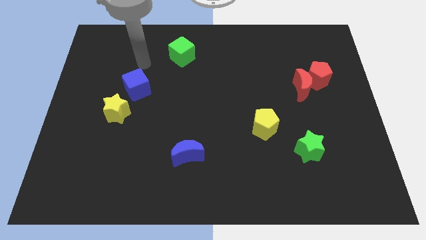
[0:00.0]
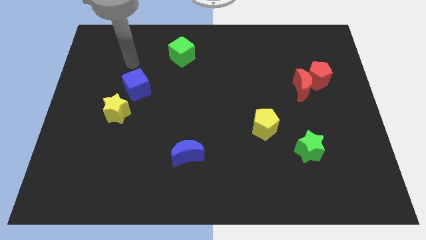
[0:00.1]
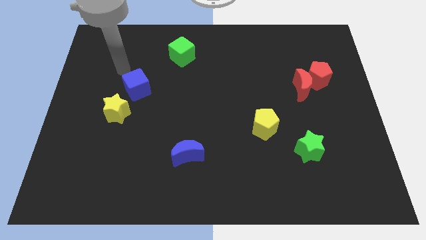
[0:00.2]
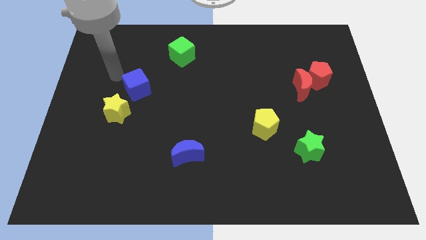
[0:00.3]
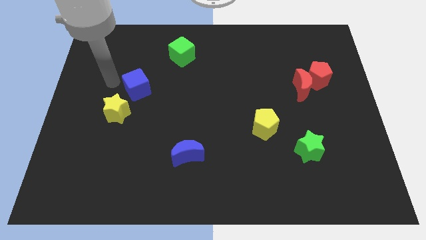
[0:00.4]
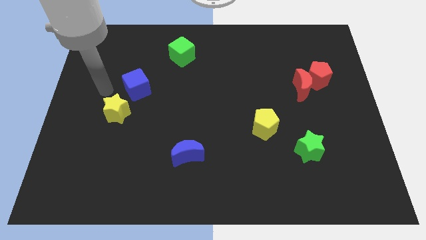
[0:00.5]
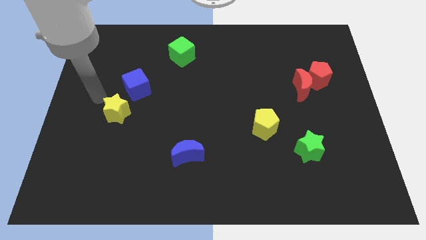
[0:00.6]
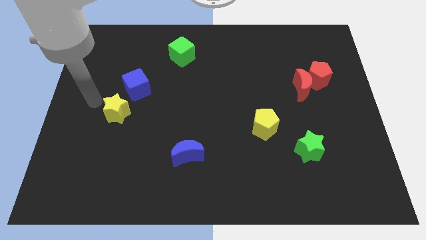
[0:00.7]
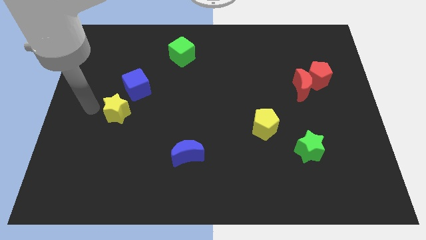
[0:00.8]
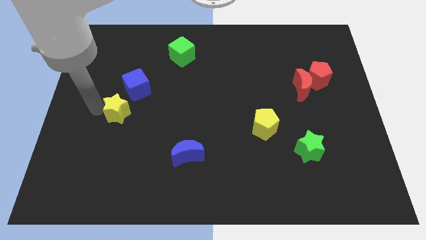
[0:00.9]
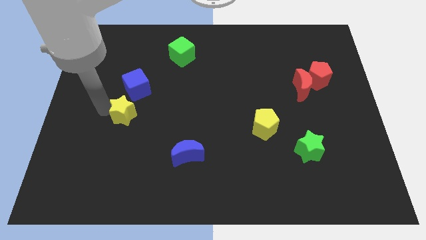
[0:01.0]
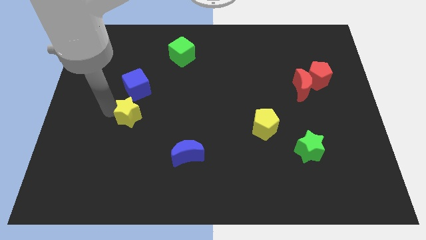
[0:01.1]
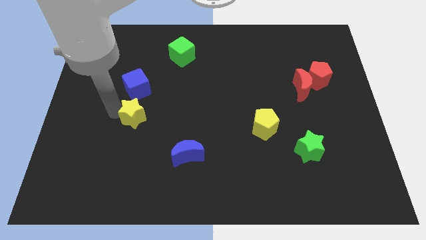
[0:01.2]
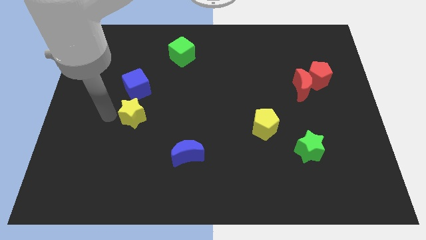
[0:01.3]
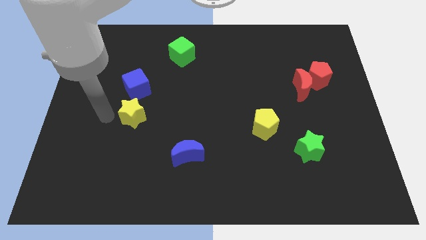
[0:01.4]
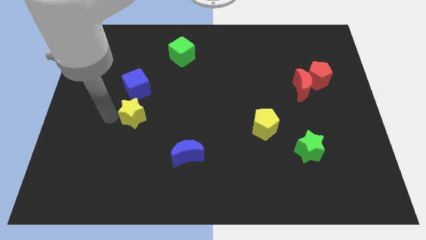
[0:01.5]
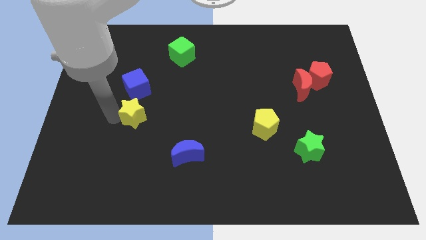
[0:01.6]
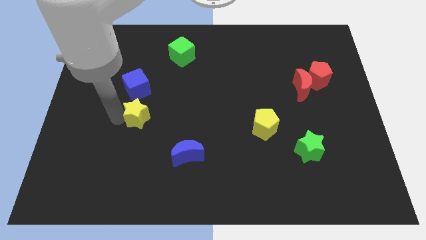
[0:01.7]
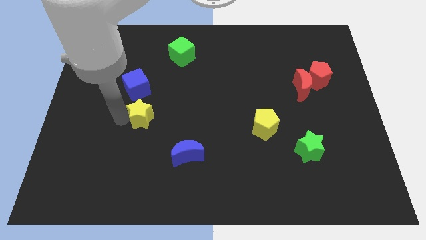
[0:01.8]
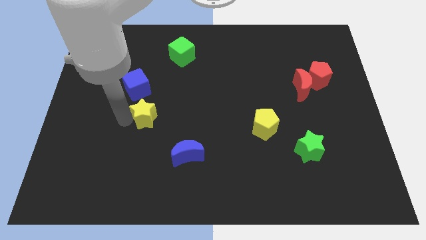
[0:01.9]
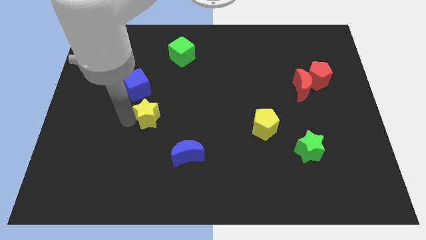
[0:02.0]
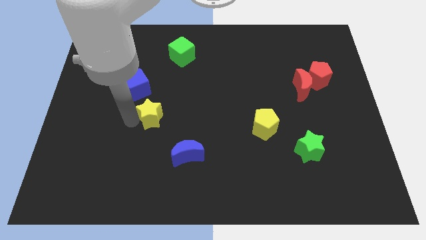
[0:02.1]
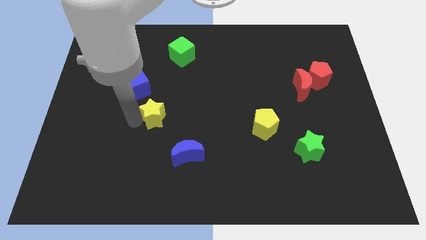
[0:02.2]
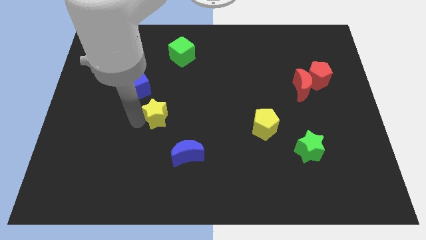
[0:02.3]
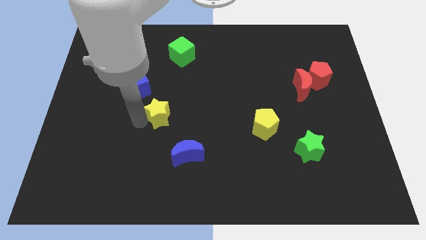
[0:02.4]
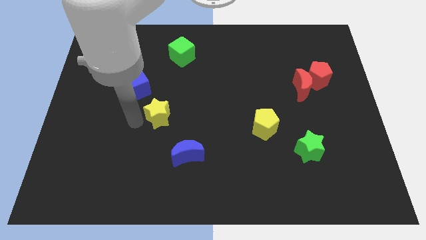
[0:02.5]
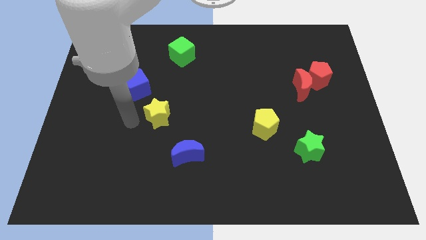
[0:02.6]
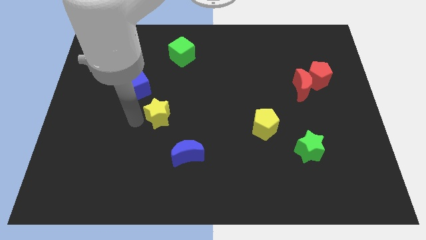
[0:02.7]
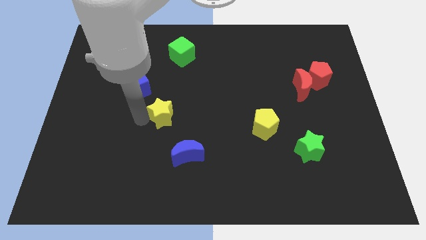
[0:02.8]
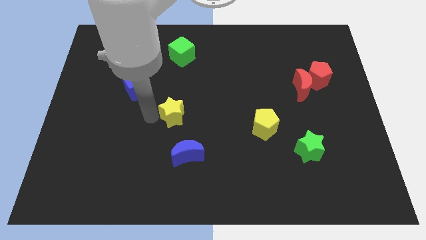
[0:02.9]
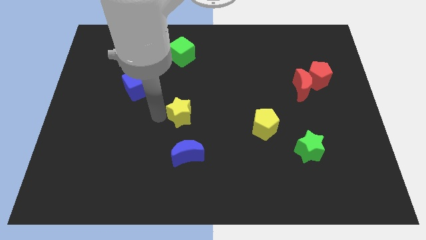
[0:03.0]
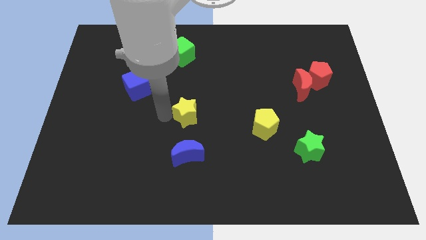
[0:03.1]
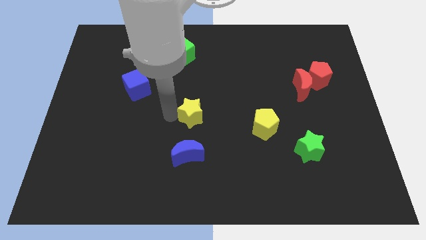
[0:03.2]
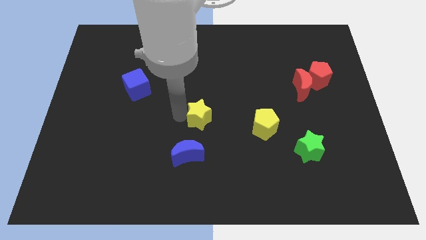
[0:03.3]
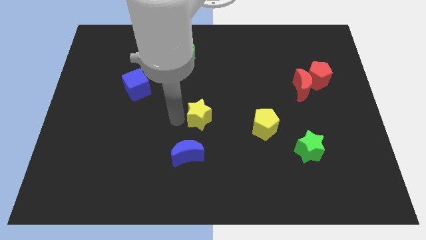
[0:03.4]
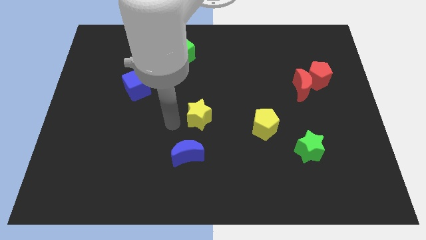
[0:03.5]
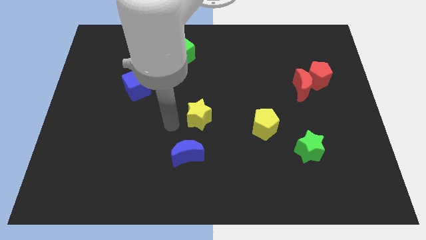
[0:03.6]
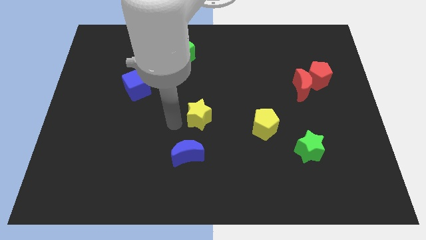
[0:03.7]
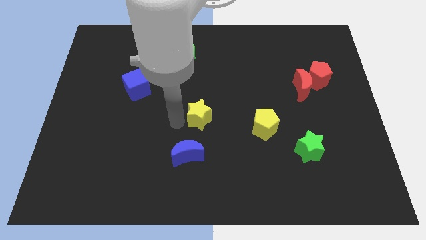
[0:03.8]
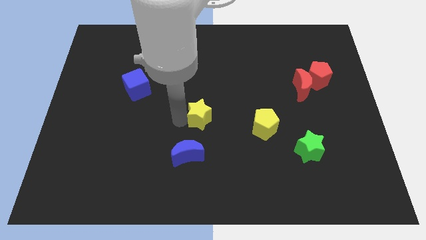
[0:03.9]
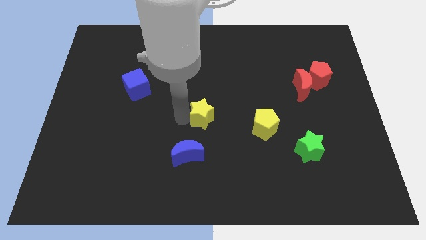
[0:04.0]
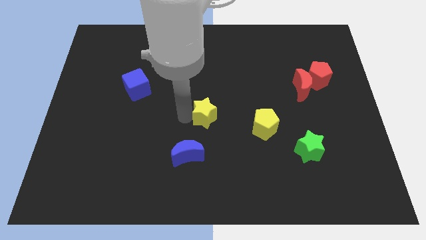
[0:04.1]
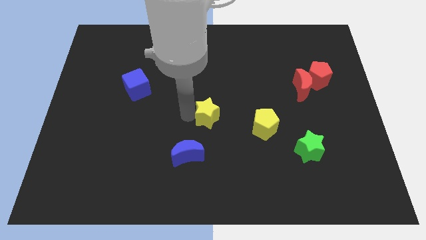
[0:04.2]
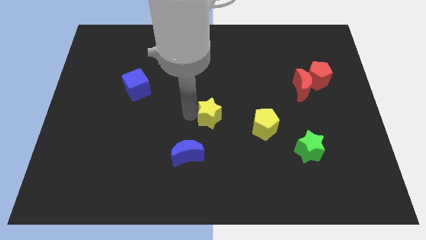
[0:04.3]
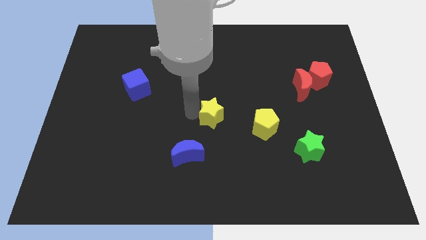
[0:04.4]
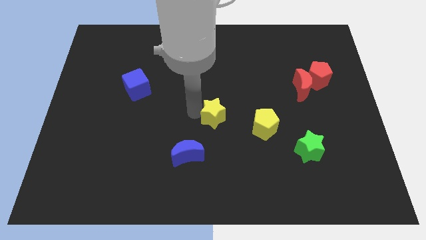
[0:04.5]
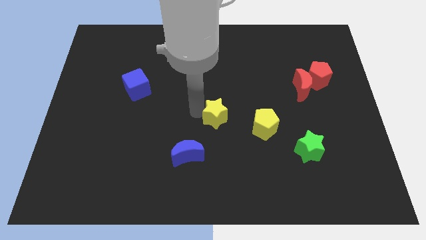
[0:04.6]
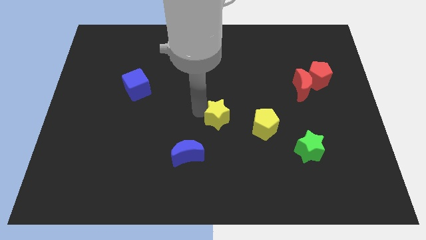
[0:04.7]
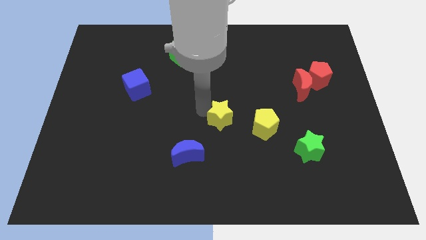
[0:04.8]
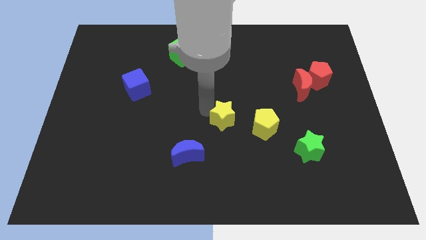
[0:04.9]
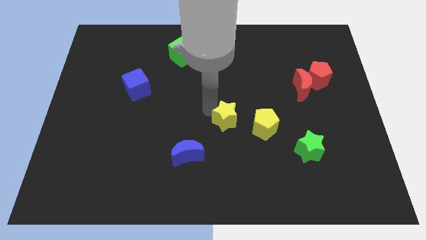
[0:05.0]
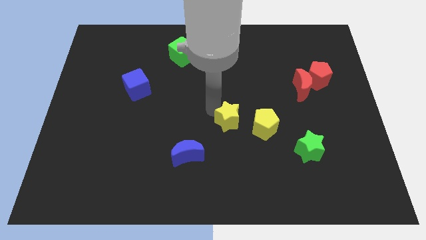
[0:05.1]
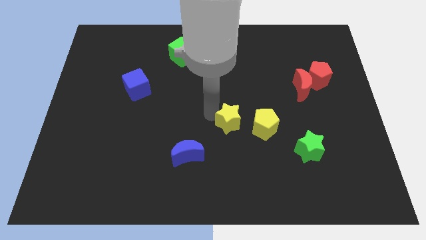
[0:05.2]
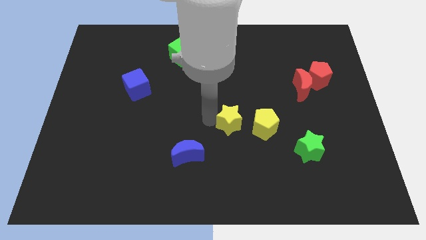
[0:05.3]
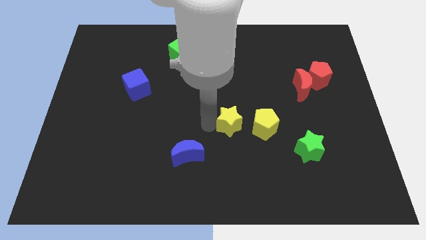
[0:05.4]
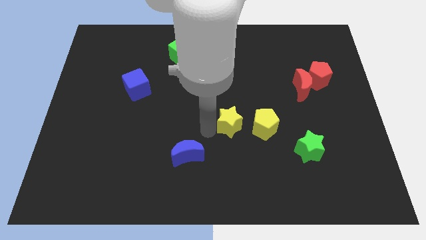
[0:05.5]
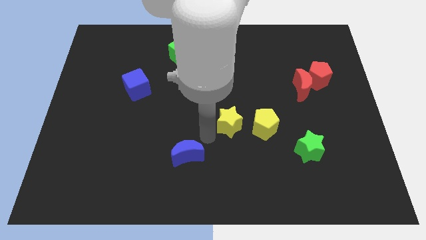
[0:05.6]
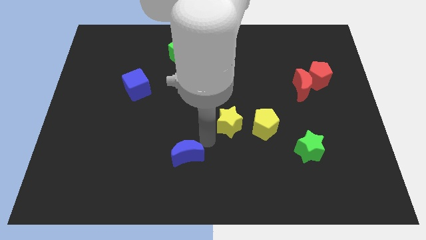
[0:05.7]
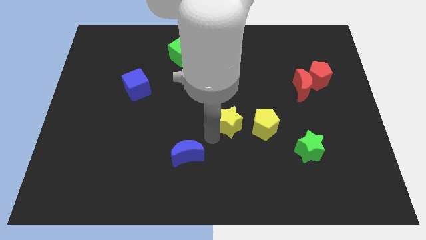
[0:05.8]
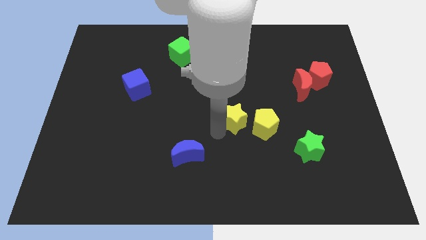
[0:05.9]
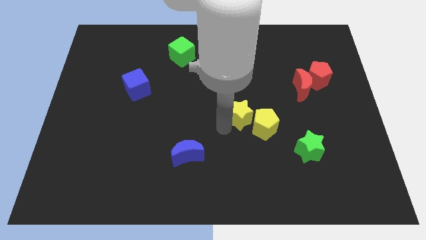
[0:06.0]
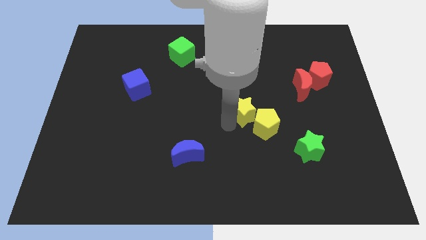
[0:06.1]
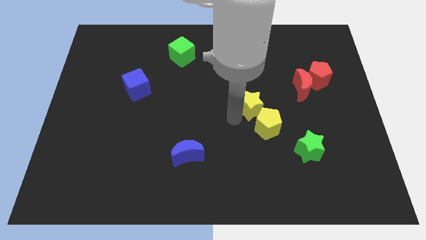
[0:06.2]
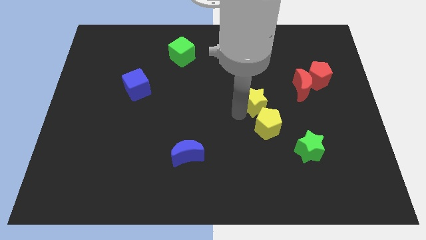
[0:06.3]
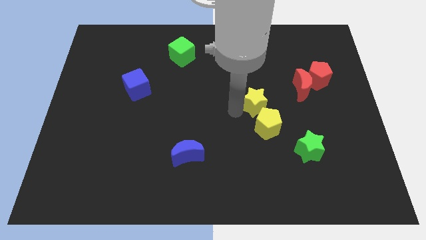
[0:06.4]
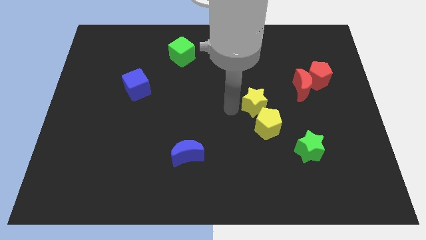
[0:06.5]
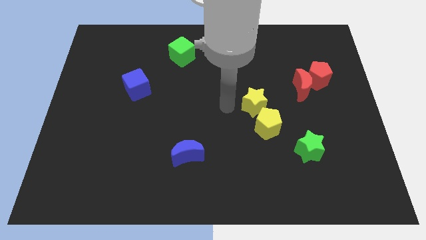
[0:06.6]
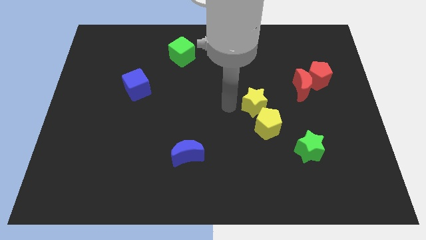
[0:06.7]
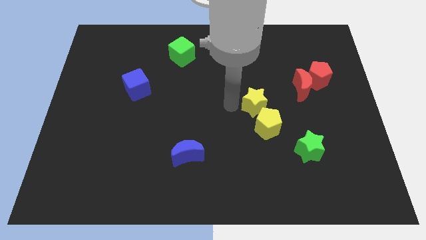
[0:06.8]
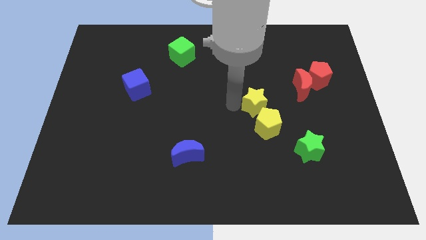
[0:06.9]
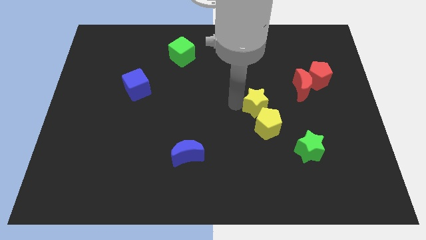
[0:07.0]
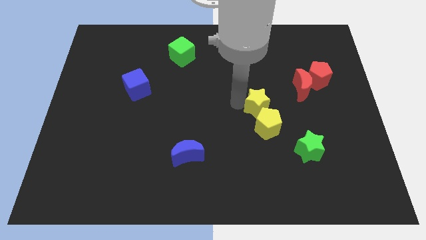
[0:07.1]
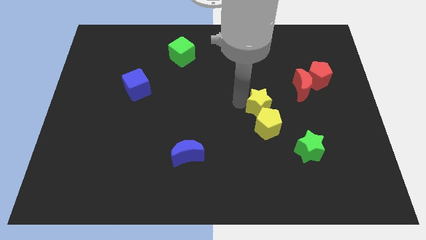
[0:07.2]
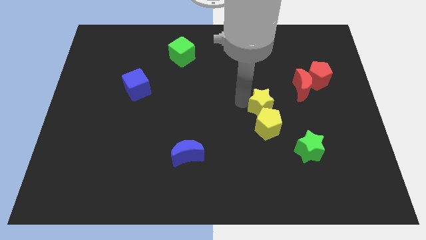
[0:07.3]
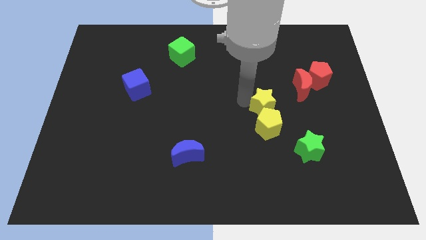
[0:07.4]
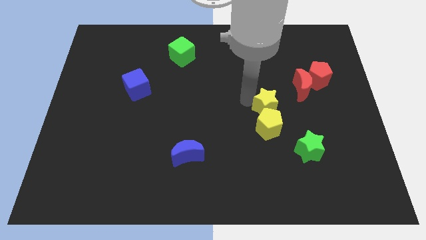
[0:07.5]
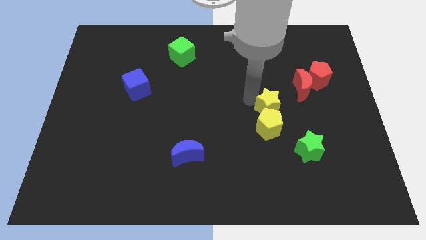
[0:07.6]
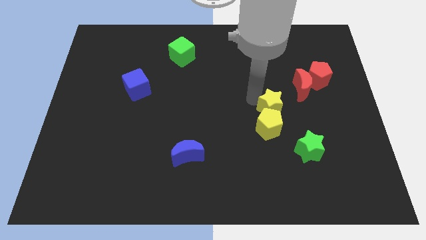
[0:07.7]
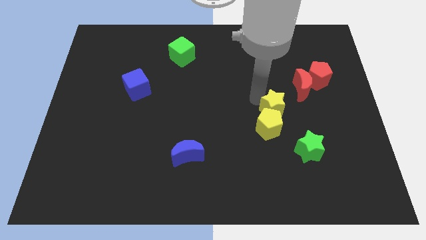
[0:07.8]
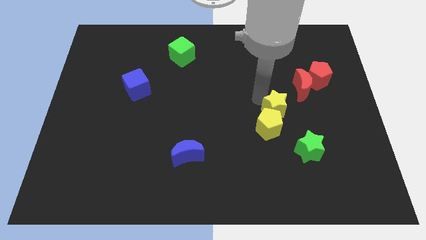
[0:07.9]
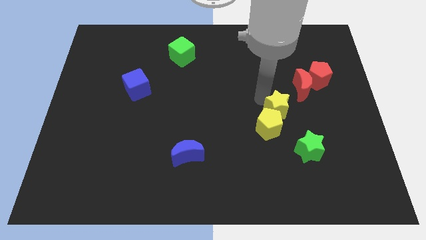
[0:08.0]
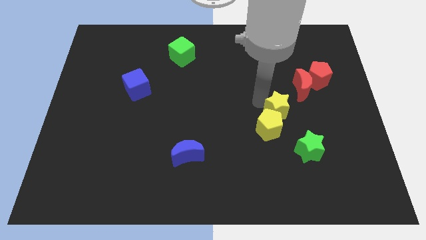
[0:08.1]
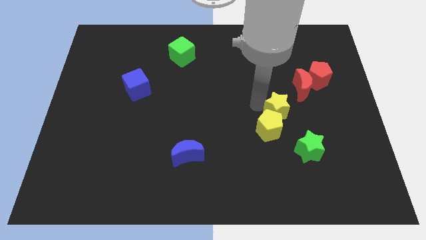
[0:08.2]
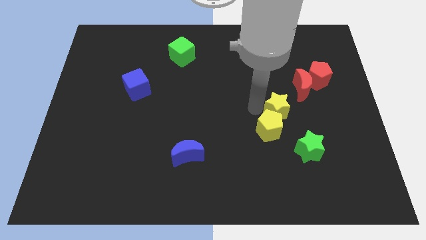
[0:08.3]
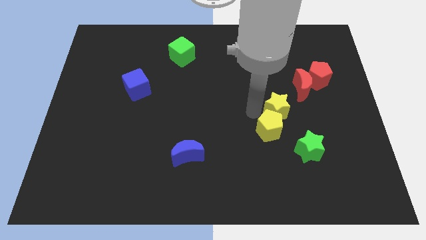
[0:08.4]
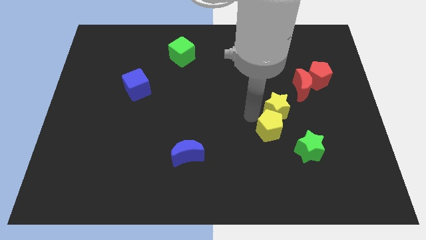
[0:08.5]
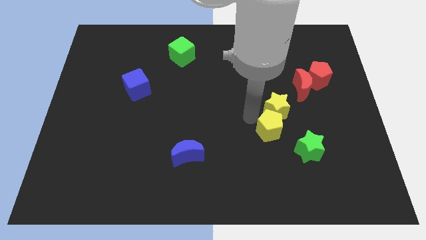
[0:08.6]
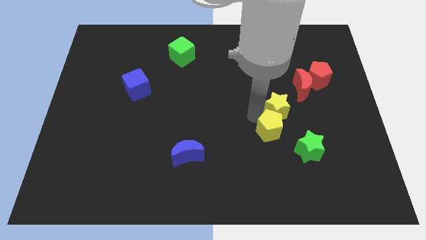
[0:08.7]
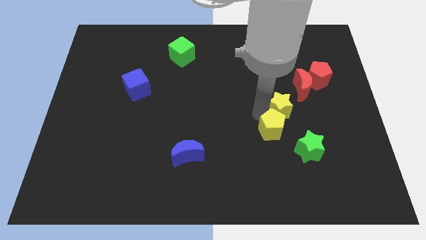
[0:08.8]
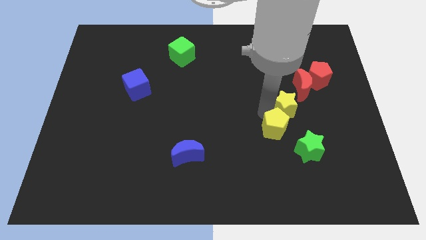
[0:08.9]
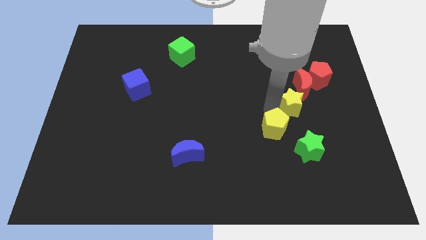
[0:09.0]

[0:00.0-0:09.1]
slide the yellow star to the bottom side of the red moon
